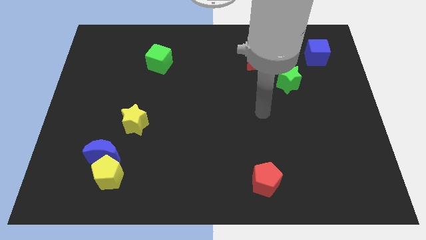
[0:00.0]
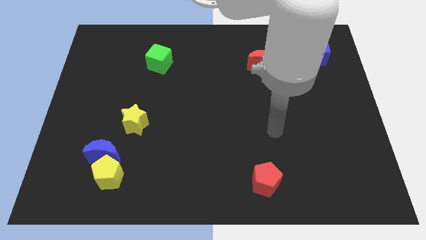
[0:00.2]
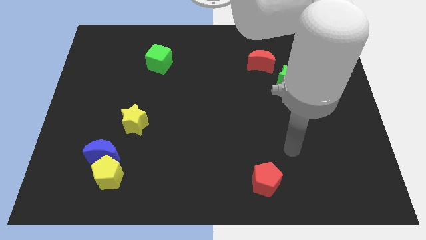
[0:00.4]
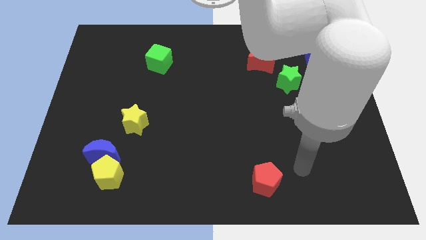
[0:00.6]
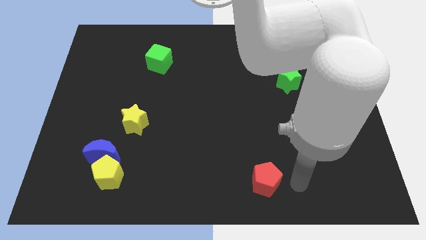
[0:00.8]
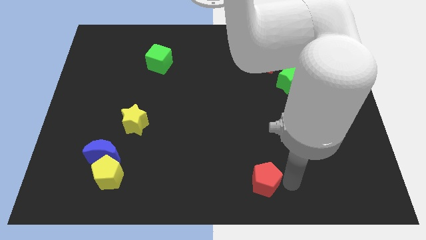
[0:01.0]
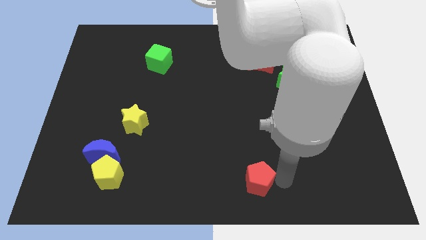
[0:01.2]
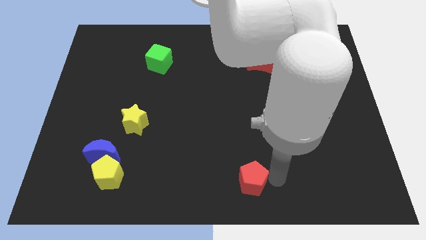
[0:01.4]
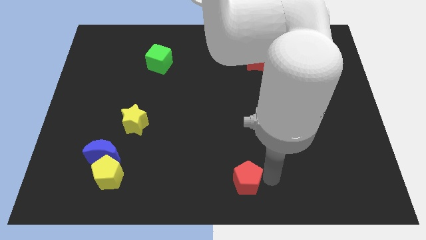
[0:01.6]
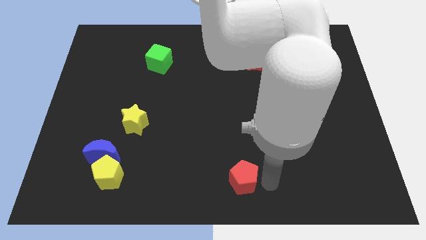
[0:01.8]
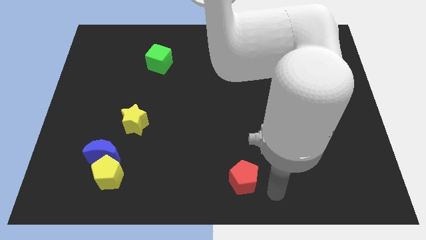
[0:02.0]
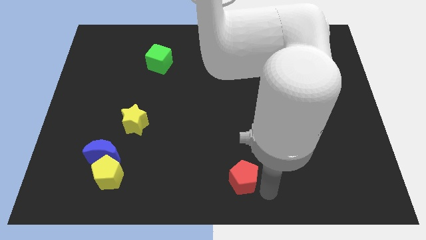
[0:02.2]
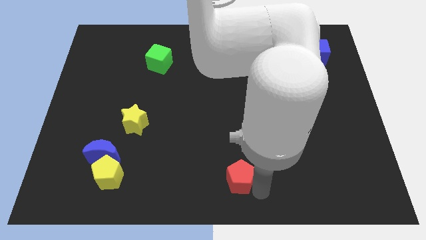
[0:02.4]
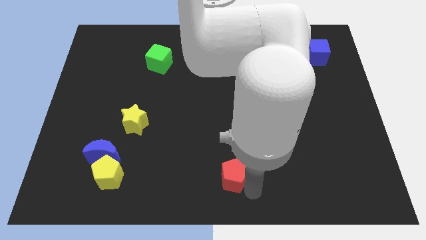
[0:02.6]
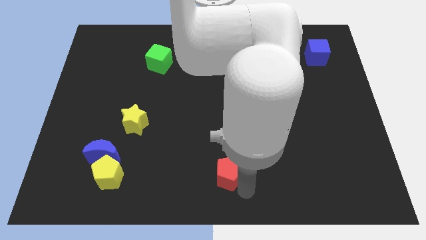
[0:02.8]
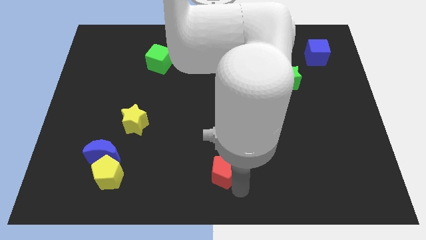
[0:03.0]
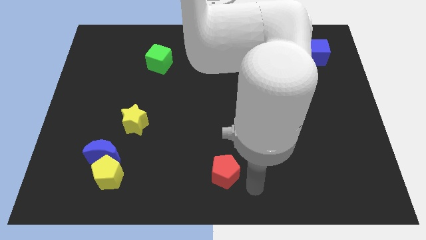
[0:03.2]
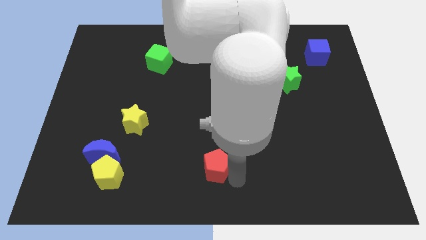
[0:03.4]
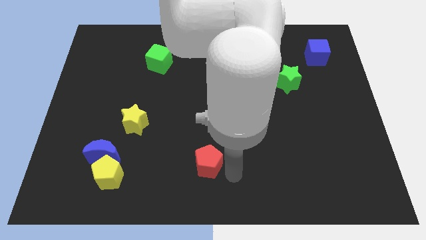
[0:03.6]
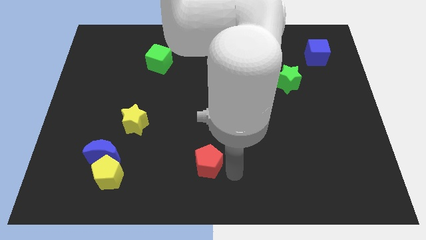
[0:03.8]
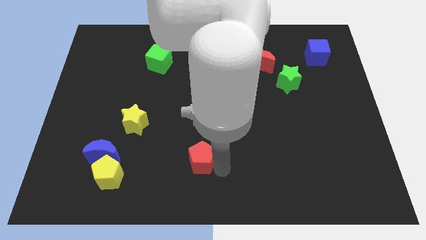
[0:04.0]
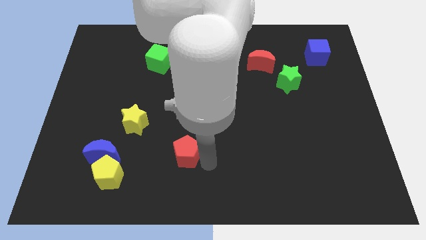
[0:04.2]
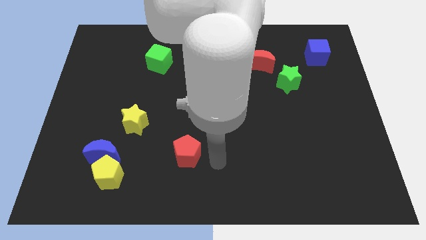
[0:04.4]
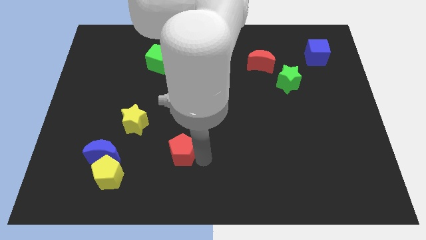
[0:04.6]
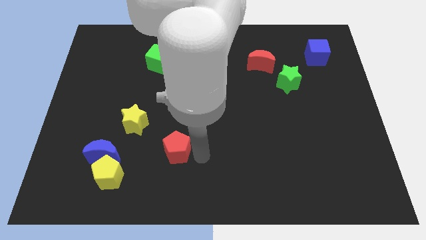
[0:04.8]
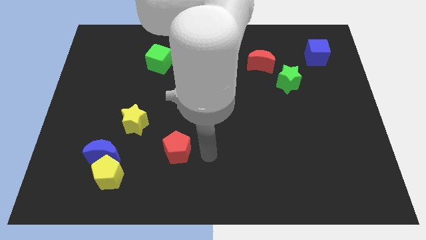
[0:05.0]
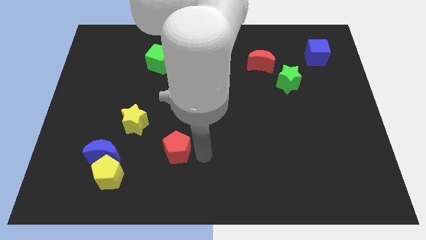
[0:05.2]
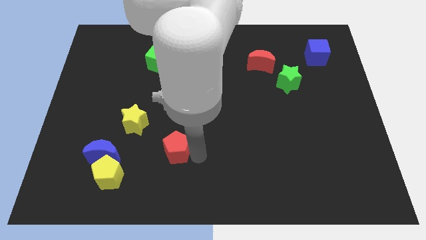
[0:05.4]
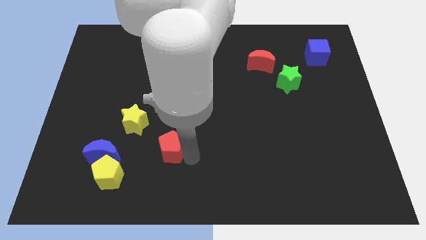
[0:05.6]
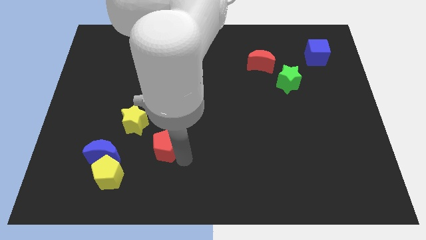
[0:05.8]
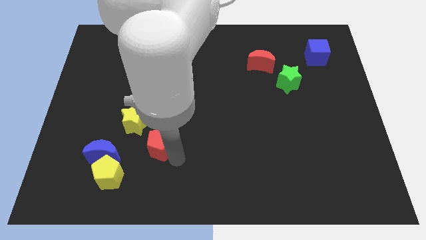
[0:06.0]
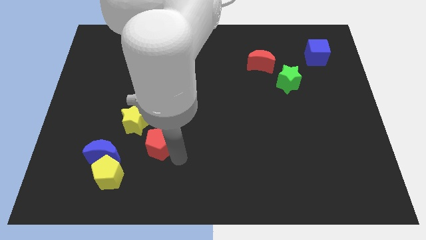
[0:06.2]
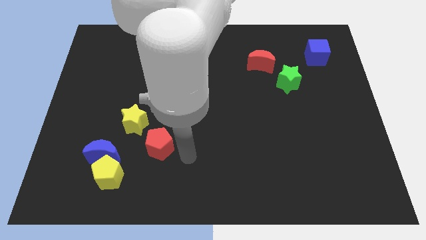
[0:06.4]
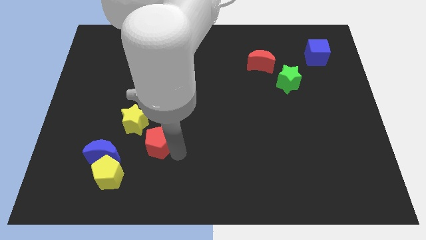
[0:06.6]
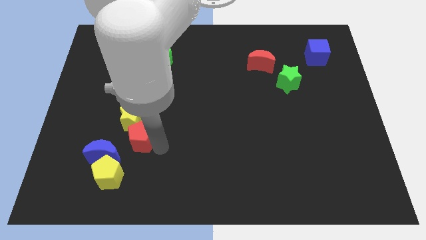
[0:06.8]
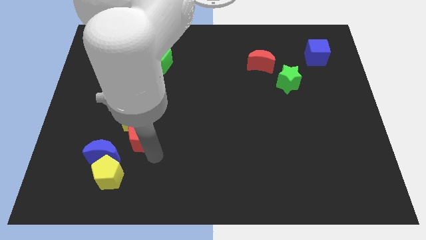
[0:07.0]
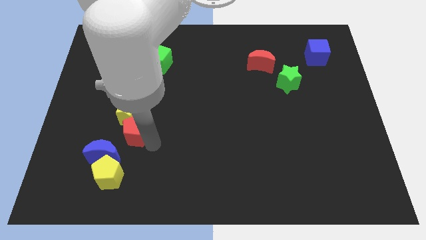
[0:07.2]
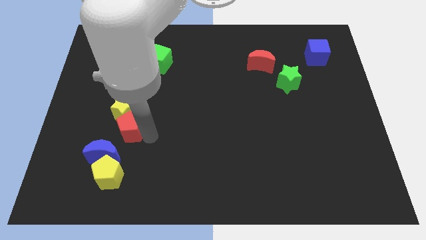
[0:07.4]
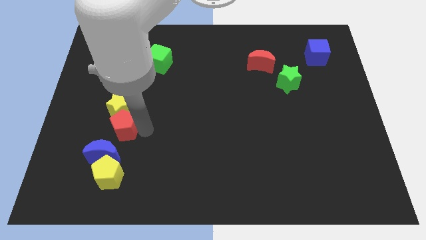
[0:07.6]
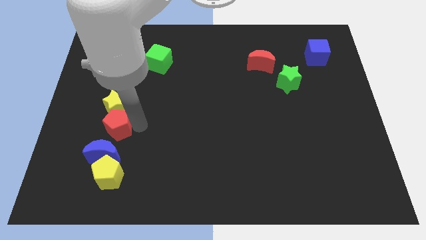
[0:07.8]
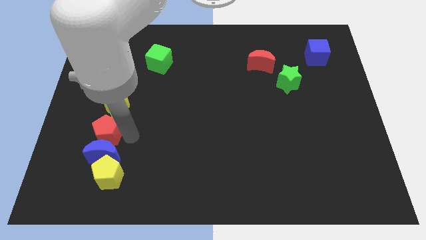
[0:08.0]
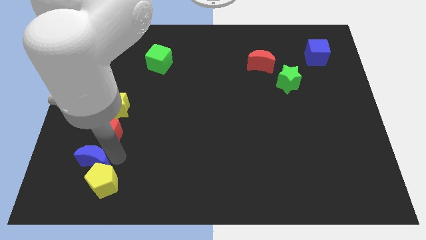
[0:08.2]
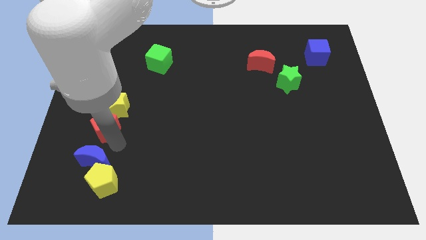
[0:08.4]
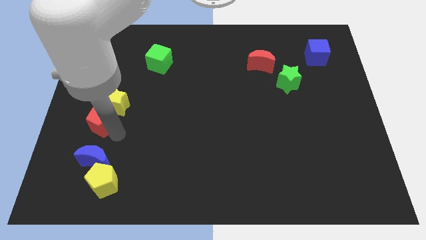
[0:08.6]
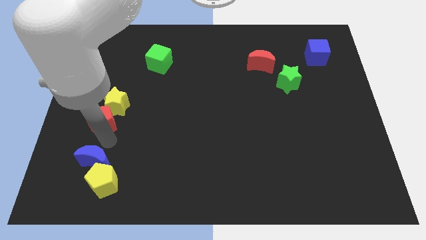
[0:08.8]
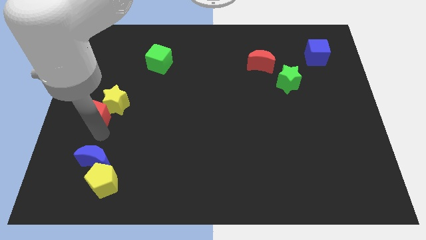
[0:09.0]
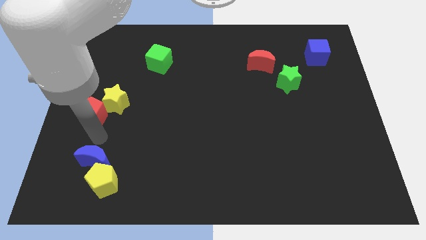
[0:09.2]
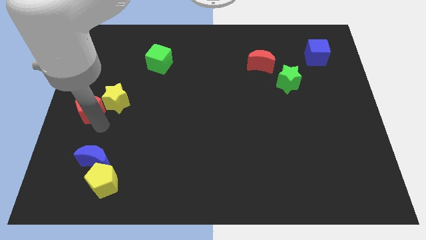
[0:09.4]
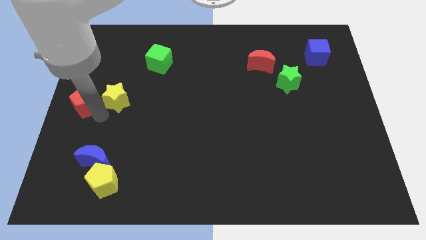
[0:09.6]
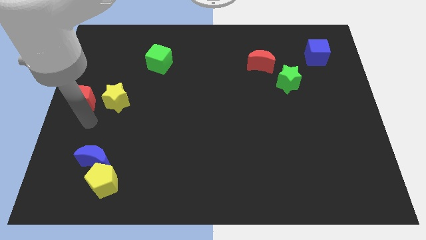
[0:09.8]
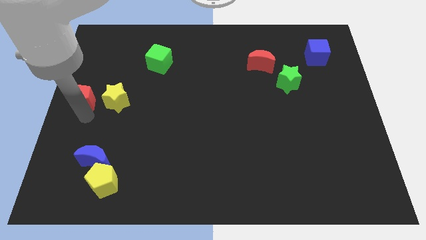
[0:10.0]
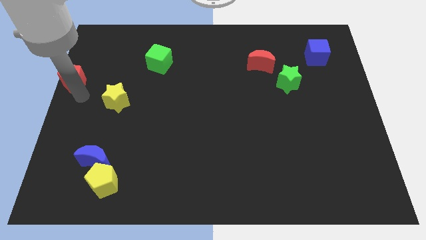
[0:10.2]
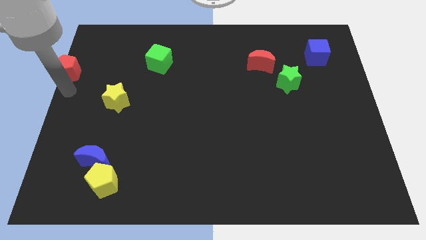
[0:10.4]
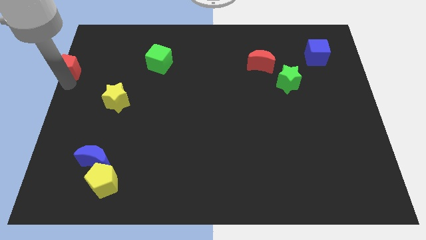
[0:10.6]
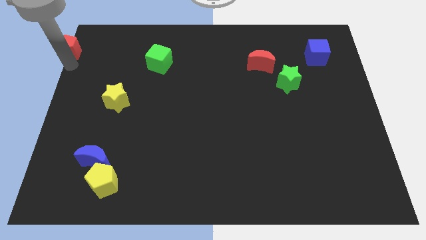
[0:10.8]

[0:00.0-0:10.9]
slide the red pentagon to the top left
